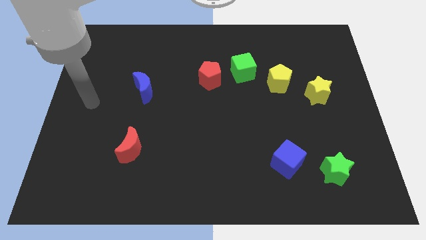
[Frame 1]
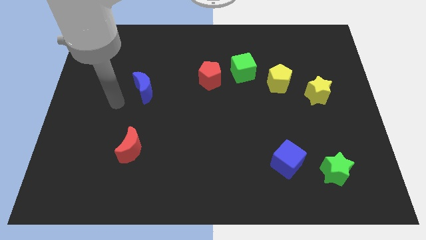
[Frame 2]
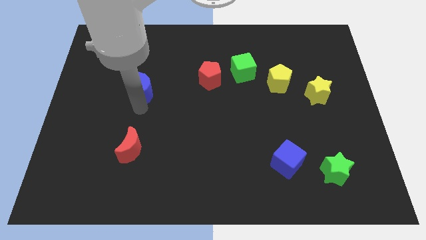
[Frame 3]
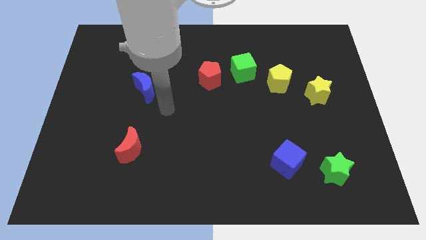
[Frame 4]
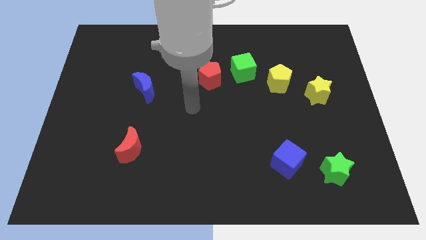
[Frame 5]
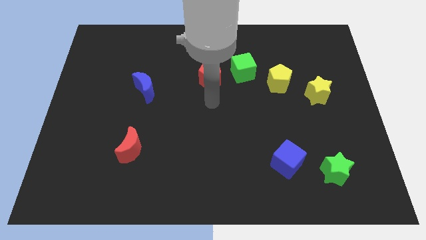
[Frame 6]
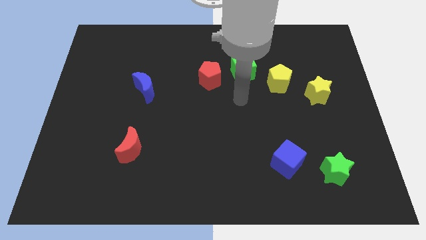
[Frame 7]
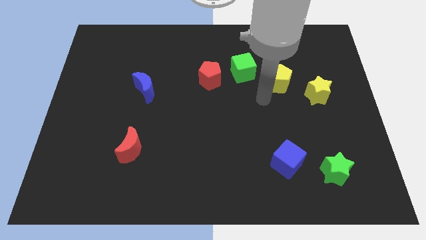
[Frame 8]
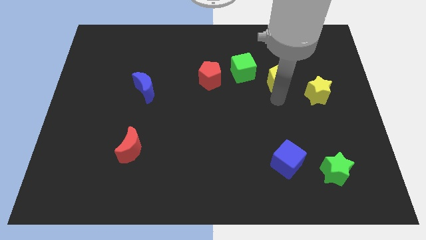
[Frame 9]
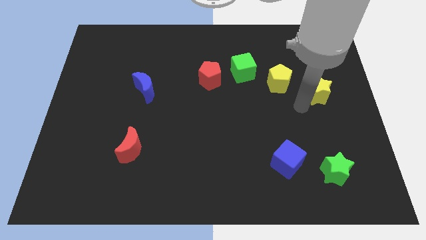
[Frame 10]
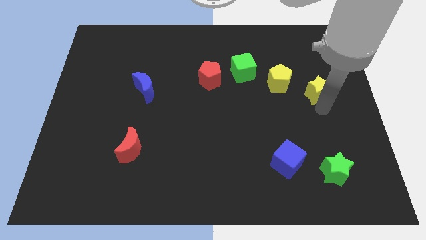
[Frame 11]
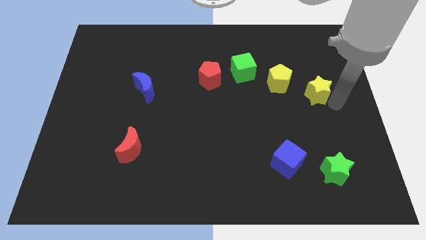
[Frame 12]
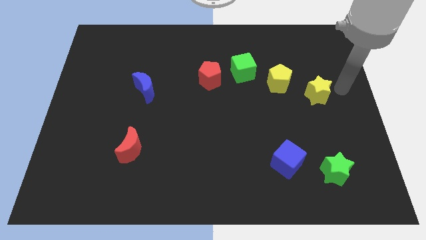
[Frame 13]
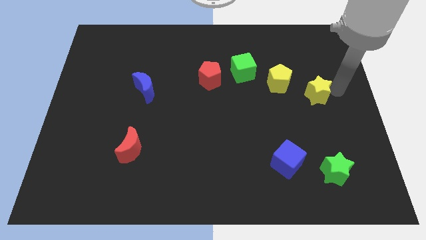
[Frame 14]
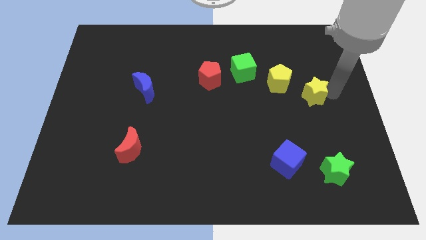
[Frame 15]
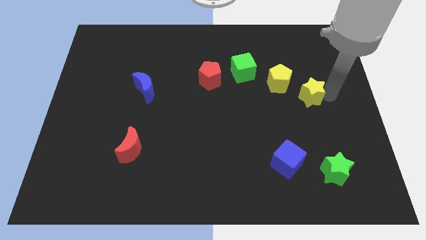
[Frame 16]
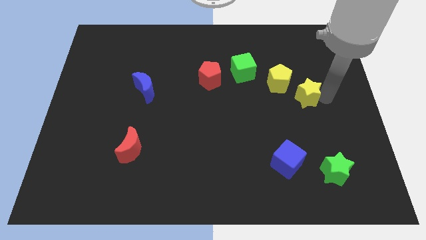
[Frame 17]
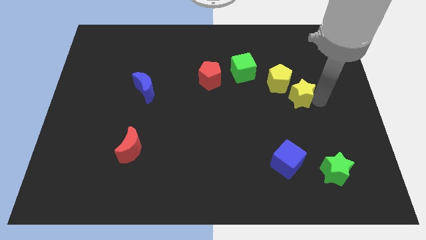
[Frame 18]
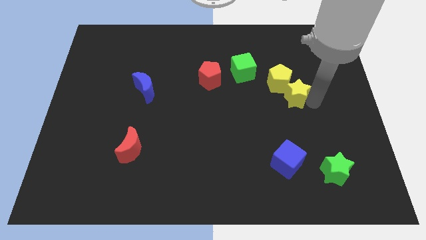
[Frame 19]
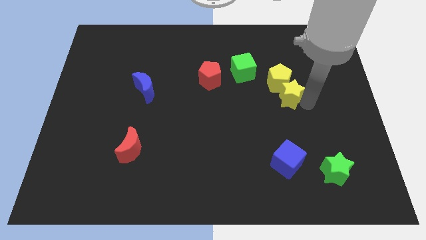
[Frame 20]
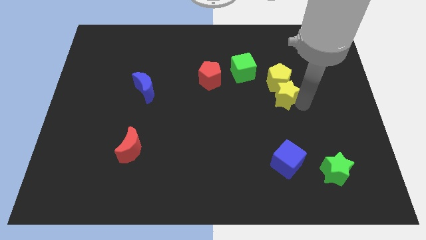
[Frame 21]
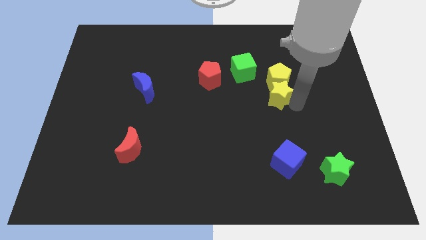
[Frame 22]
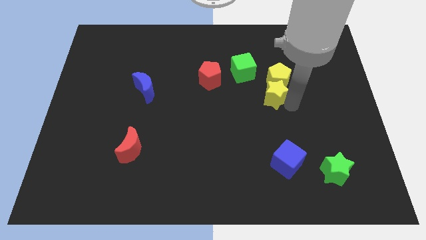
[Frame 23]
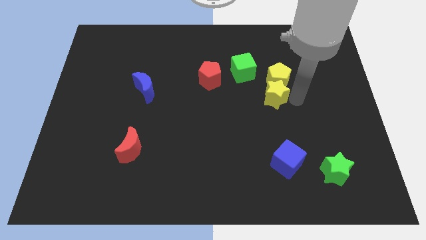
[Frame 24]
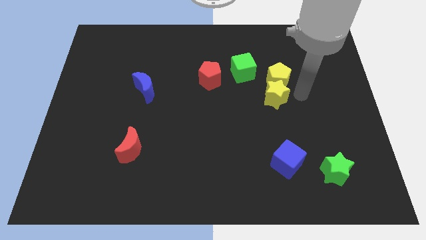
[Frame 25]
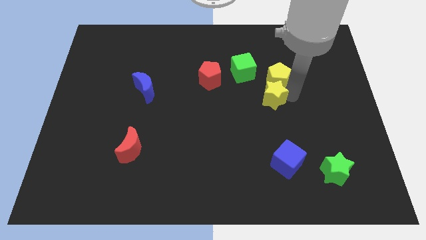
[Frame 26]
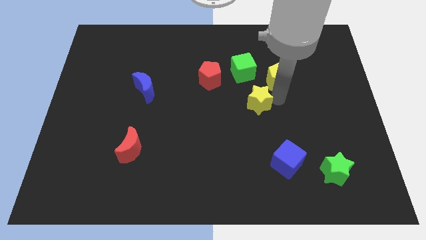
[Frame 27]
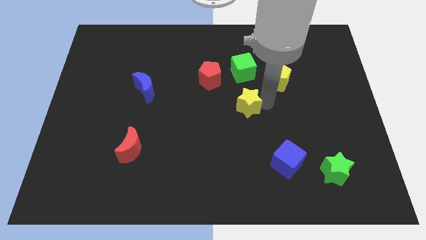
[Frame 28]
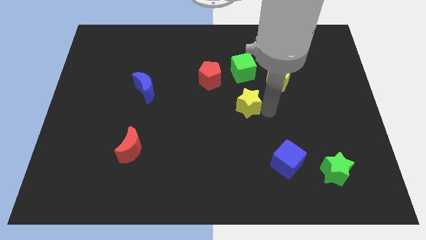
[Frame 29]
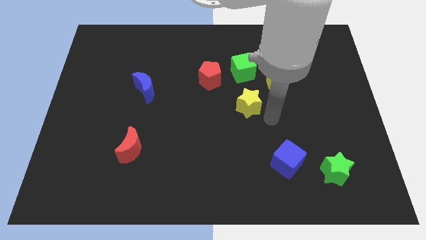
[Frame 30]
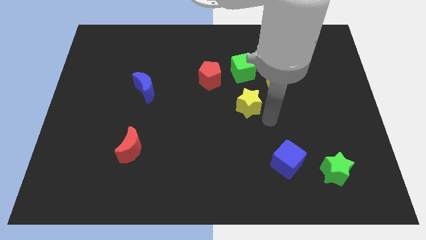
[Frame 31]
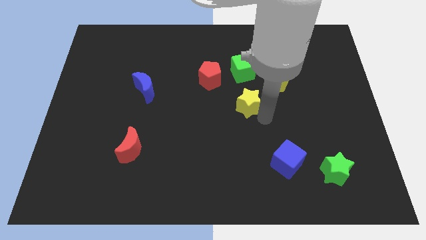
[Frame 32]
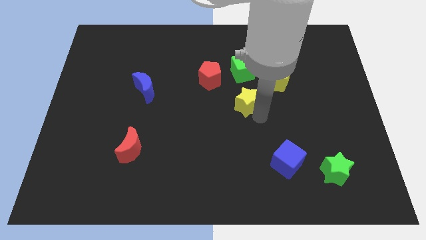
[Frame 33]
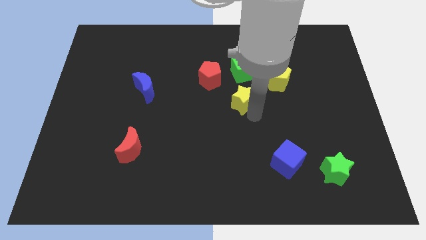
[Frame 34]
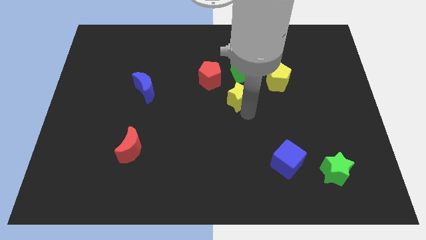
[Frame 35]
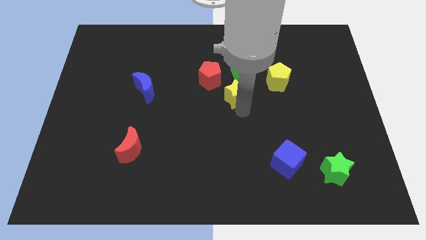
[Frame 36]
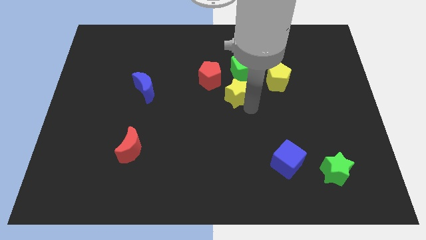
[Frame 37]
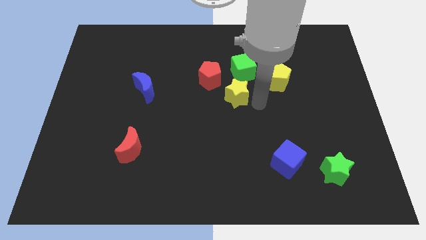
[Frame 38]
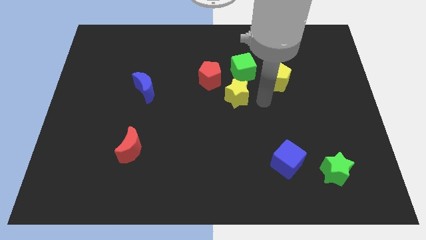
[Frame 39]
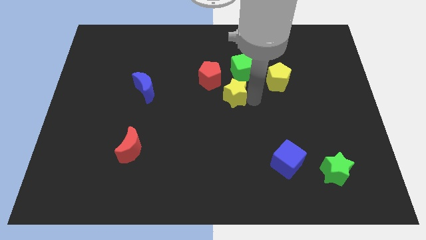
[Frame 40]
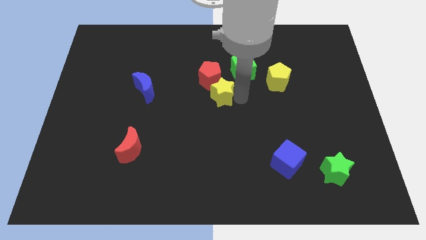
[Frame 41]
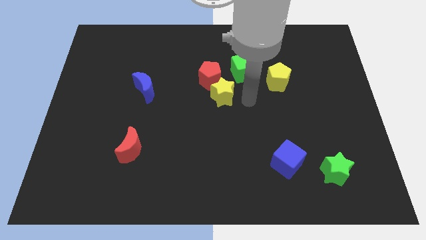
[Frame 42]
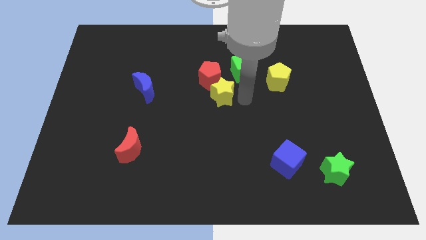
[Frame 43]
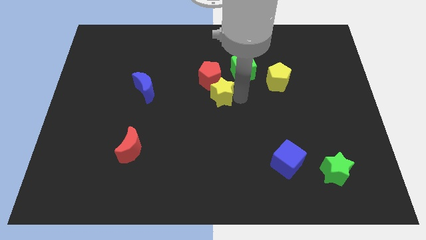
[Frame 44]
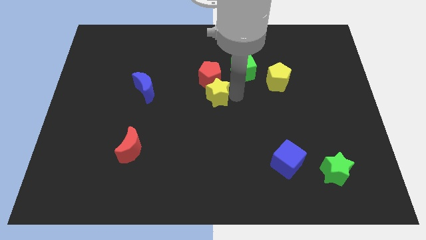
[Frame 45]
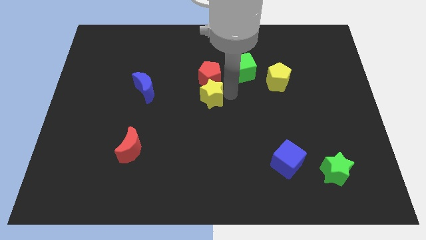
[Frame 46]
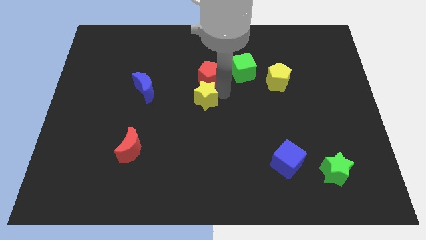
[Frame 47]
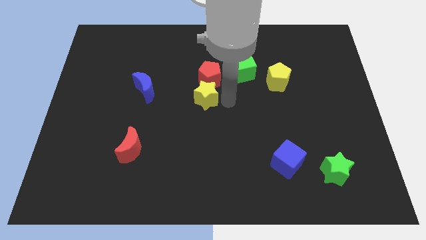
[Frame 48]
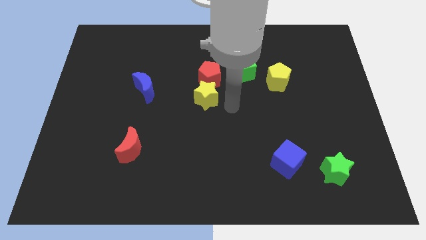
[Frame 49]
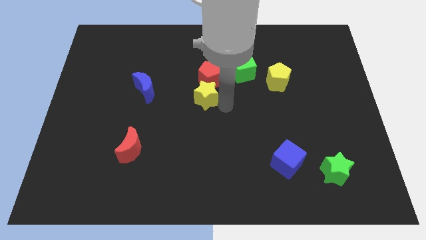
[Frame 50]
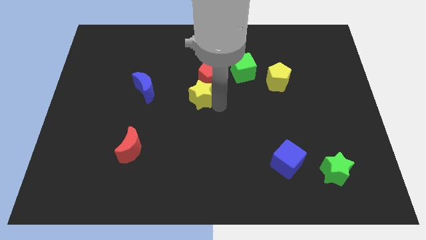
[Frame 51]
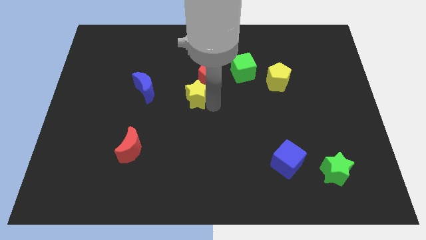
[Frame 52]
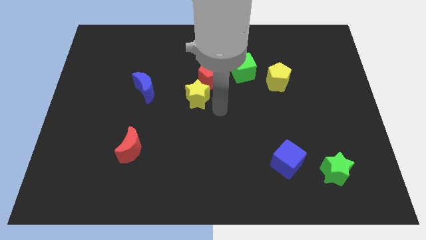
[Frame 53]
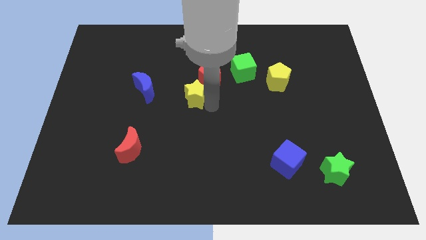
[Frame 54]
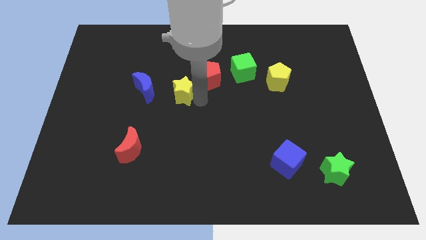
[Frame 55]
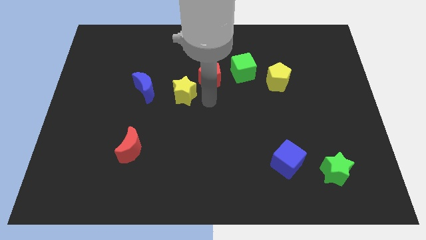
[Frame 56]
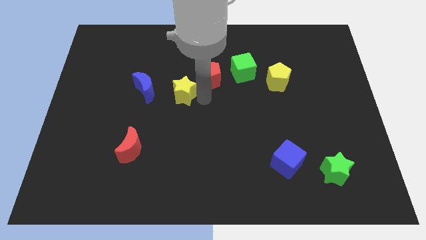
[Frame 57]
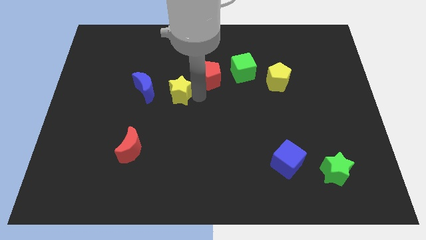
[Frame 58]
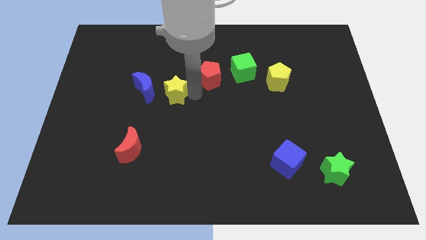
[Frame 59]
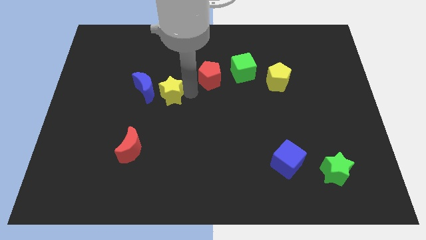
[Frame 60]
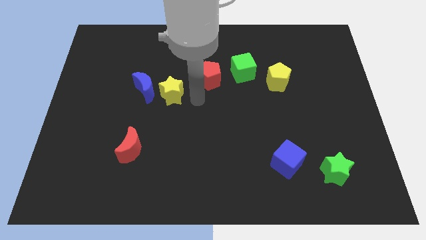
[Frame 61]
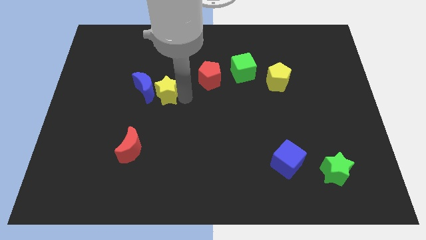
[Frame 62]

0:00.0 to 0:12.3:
slide the yellow star to the blue moon

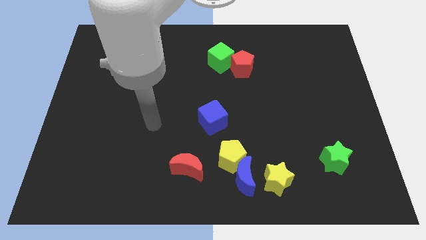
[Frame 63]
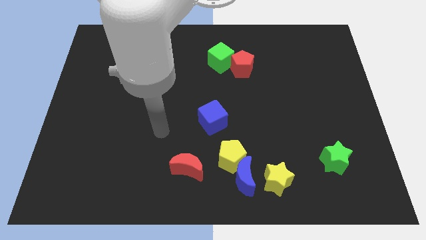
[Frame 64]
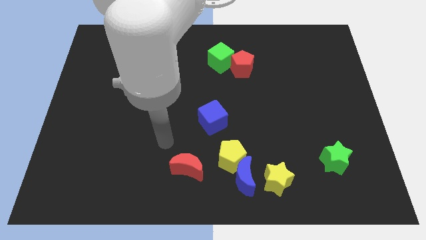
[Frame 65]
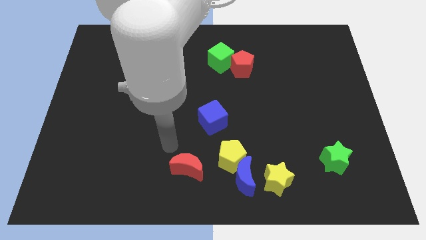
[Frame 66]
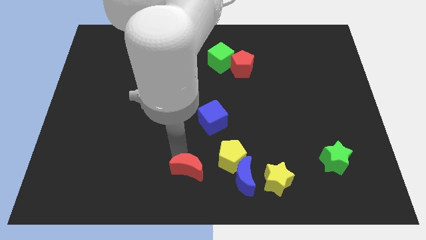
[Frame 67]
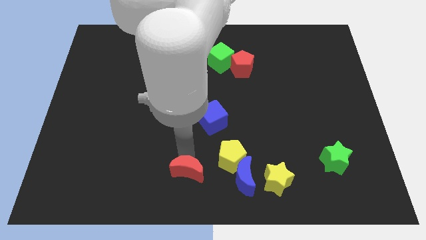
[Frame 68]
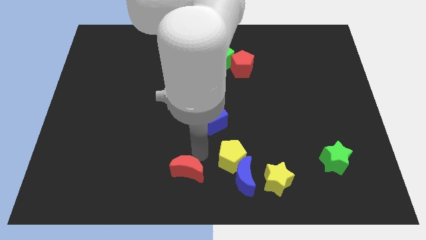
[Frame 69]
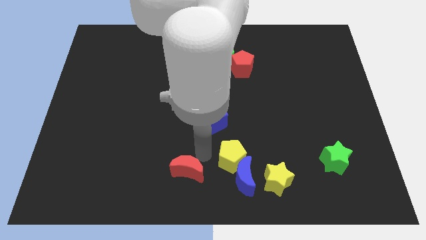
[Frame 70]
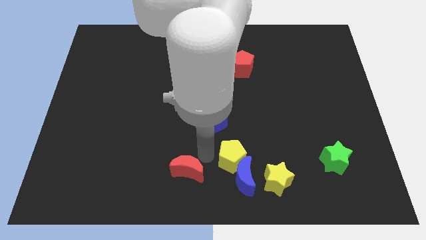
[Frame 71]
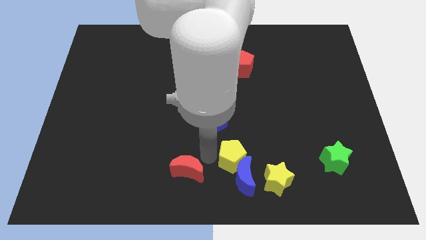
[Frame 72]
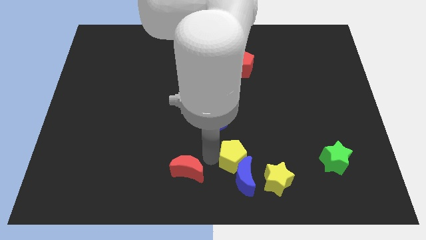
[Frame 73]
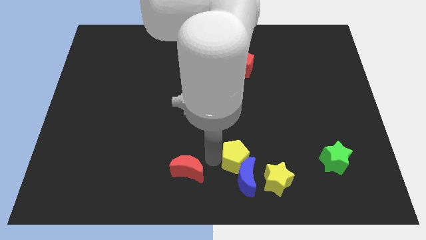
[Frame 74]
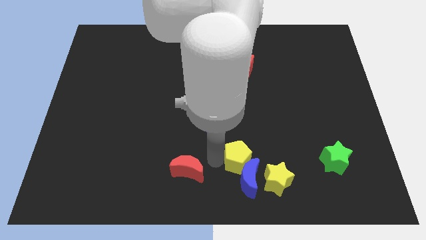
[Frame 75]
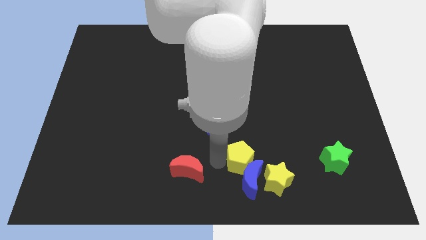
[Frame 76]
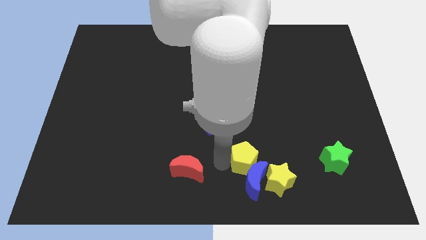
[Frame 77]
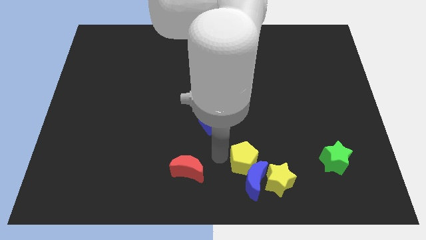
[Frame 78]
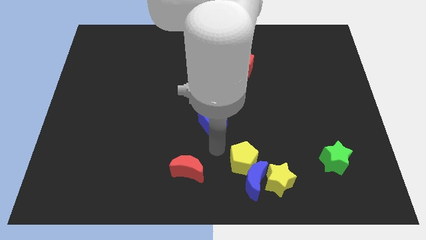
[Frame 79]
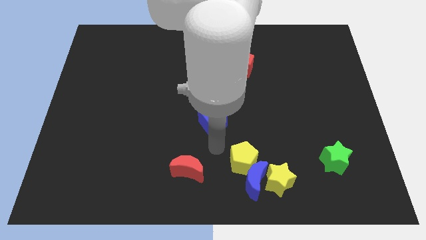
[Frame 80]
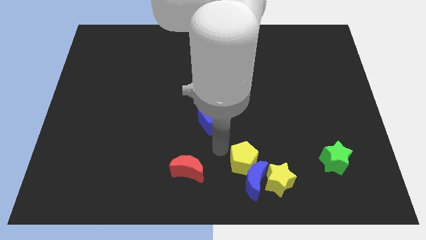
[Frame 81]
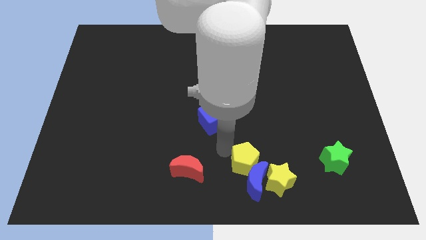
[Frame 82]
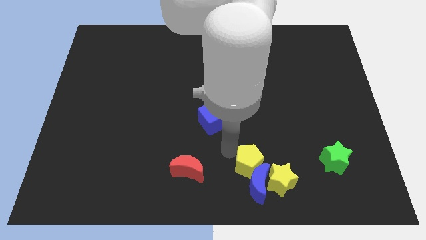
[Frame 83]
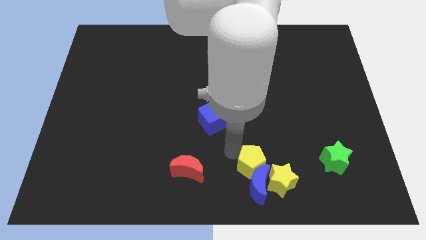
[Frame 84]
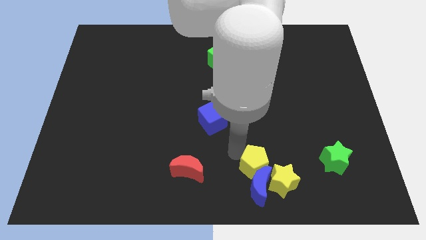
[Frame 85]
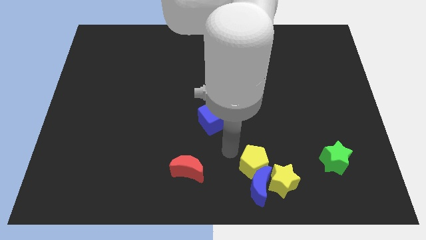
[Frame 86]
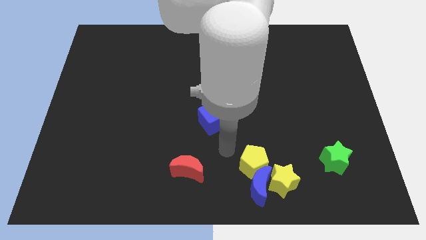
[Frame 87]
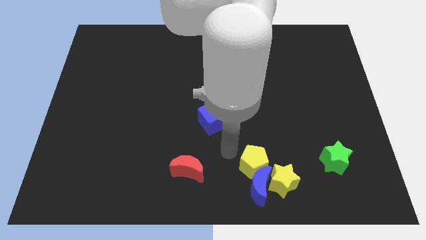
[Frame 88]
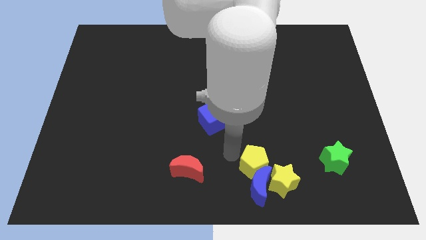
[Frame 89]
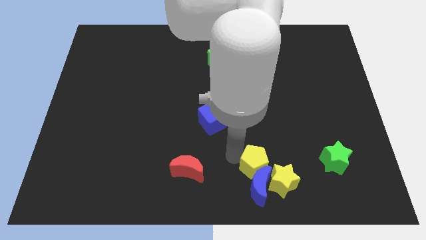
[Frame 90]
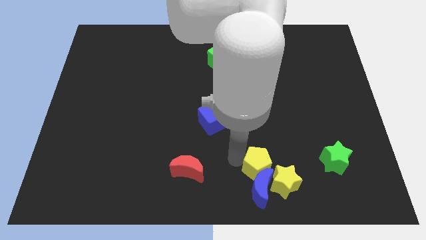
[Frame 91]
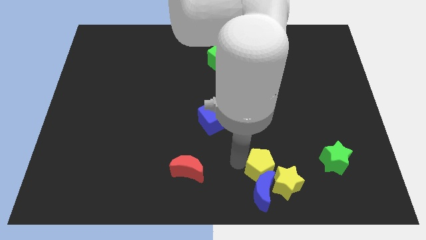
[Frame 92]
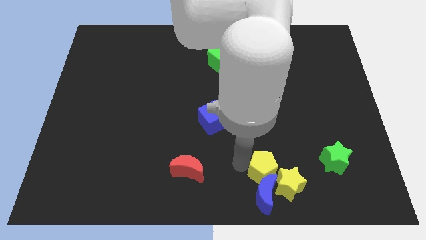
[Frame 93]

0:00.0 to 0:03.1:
move the yellow pentagon to the yellow star
